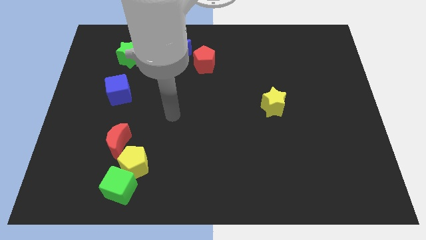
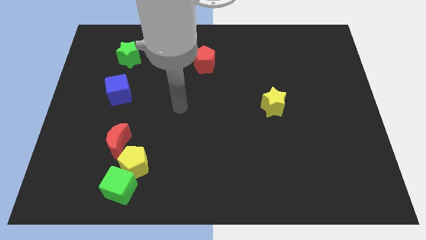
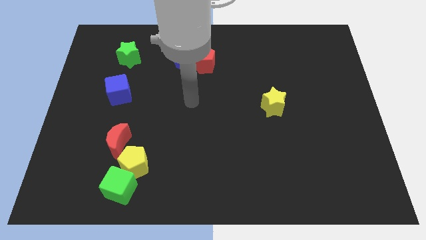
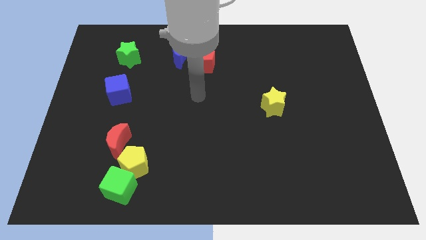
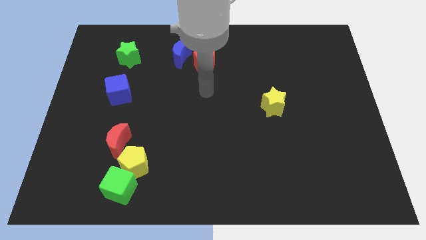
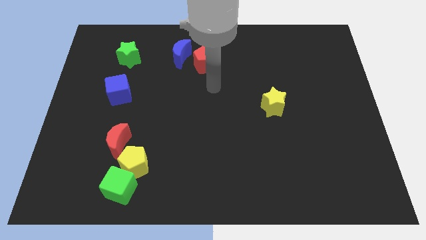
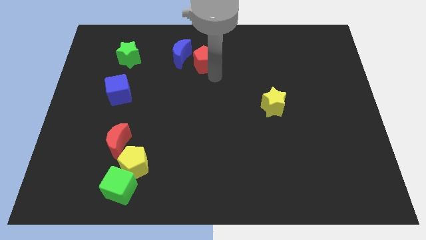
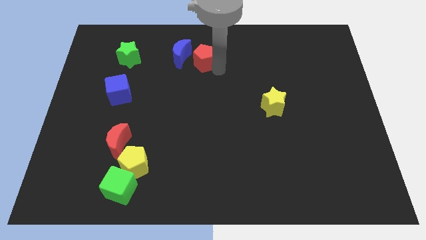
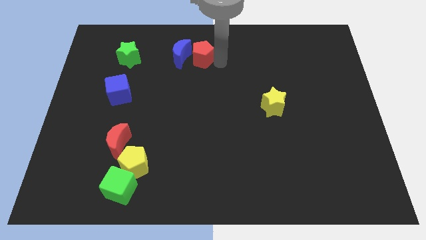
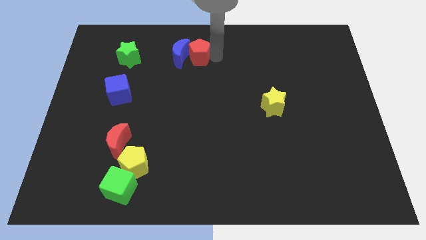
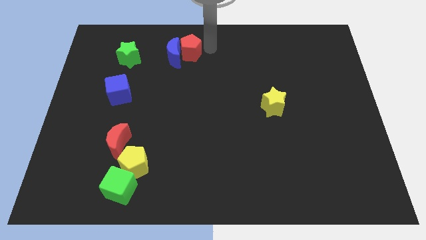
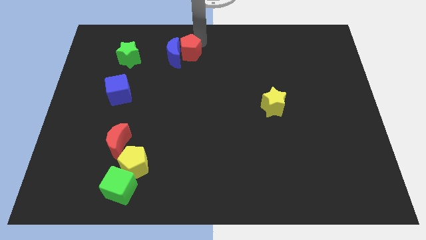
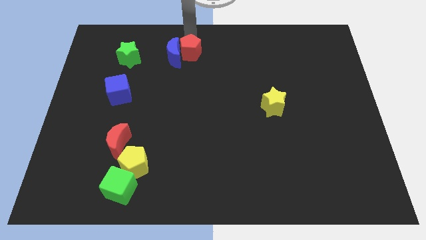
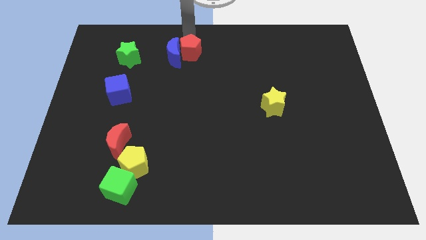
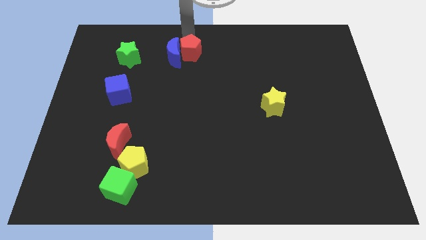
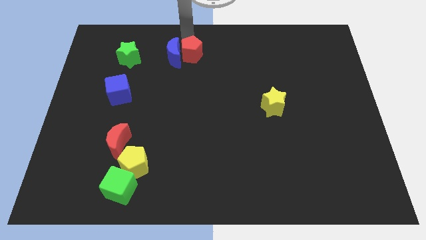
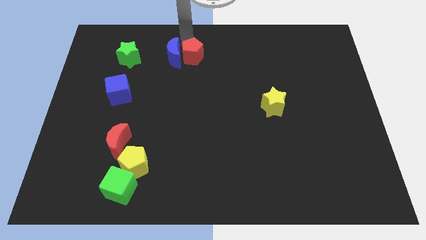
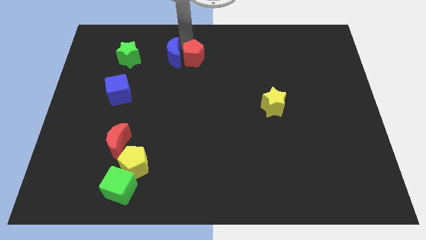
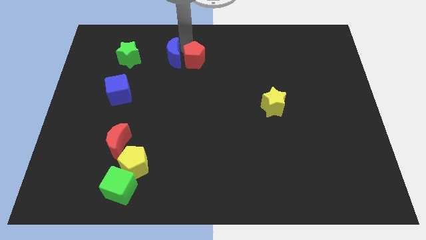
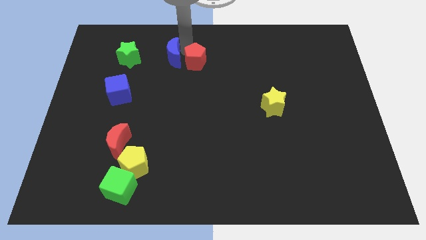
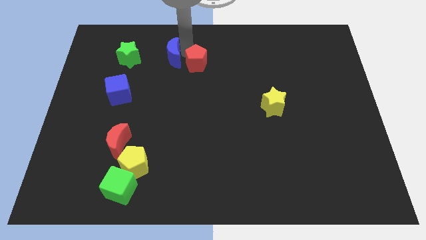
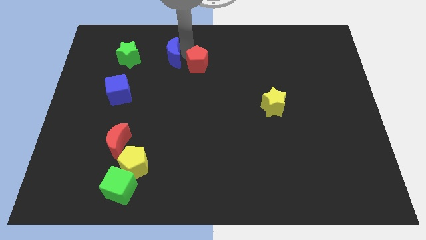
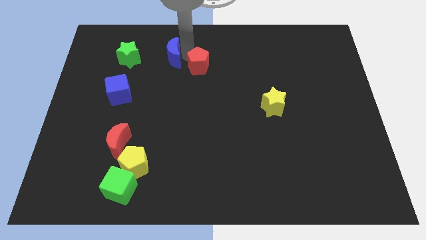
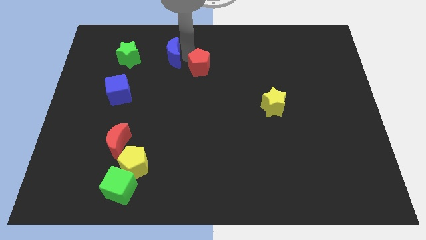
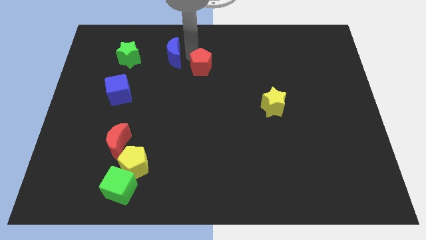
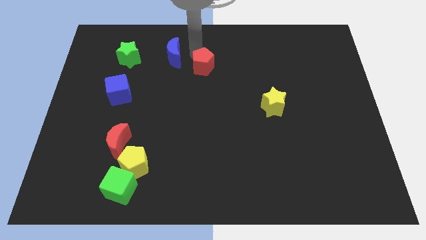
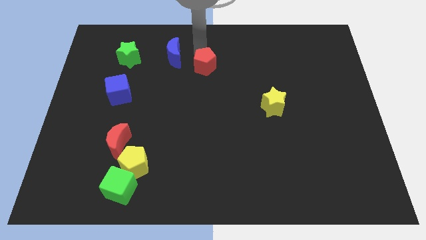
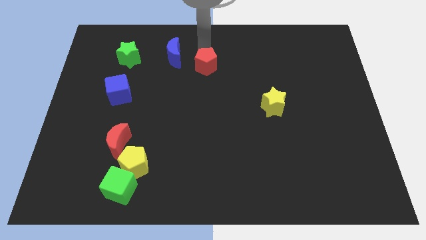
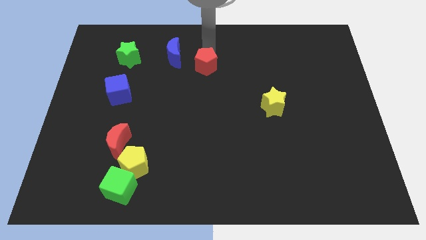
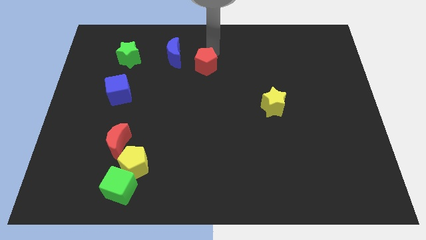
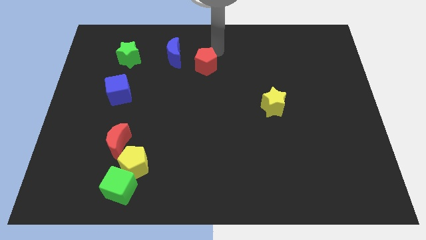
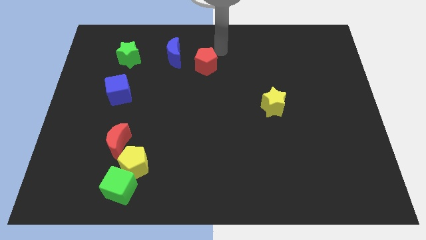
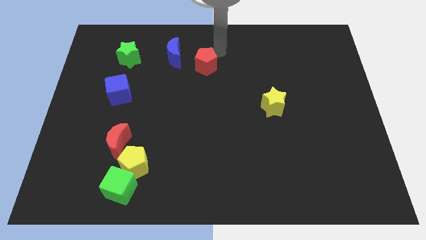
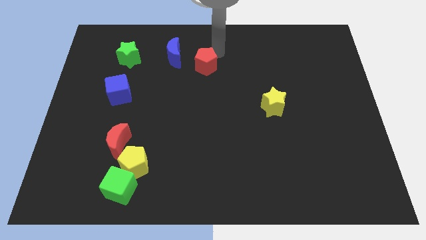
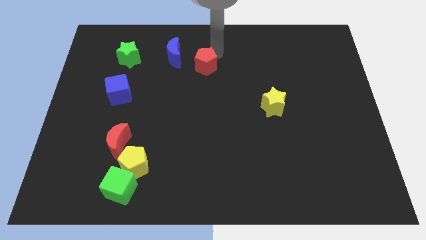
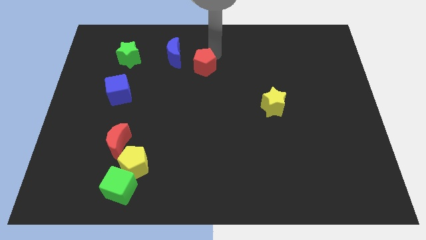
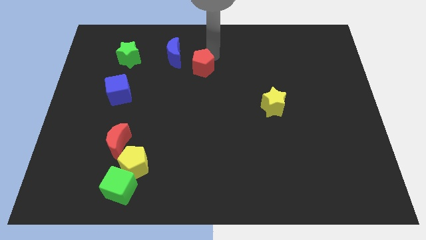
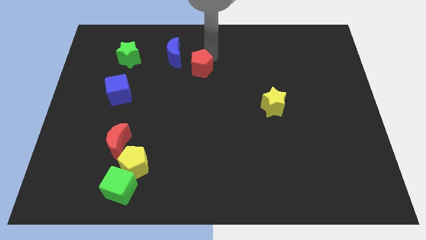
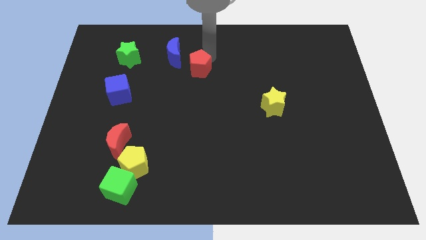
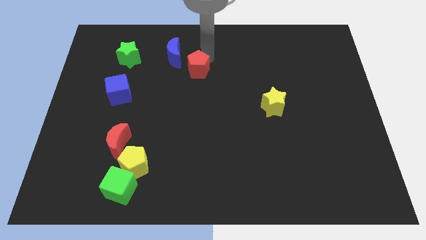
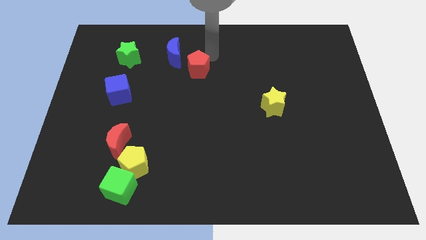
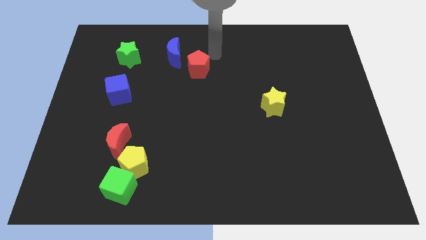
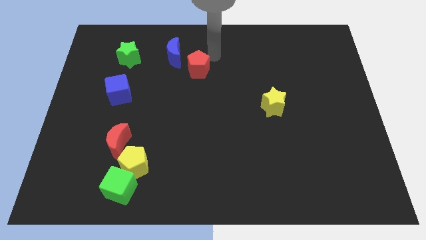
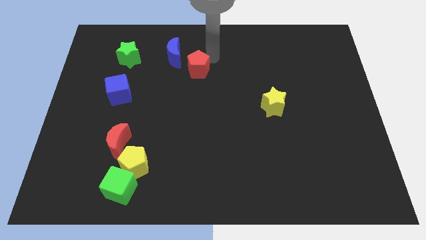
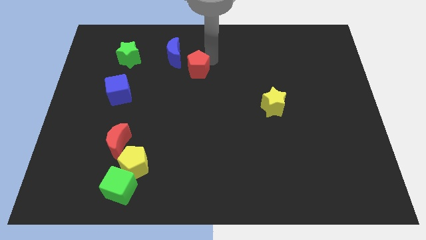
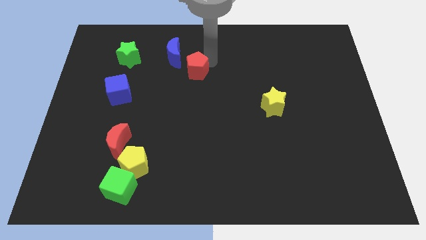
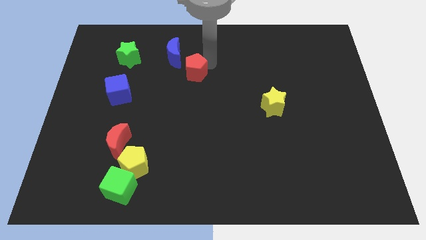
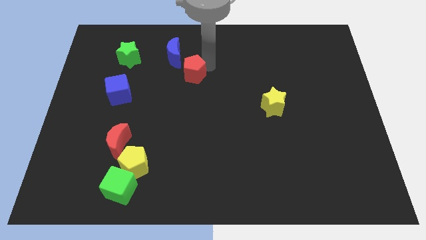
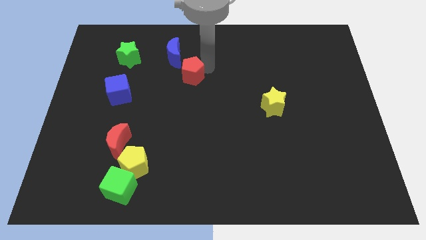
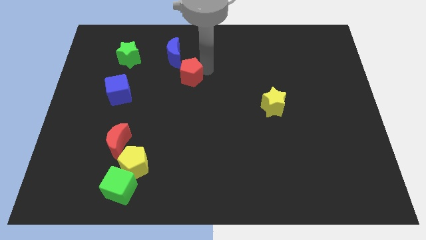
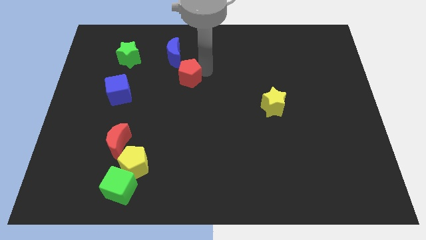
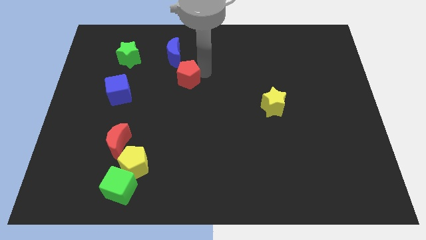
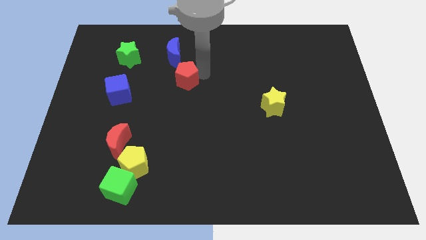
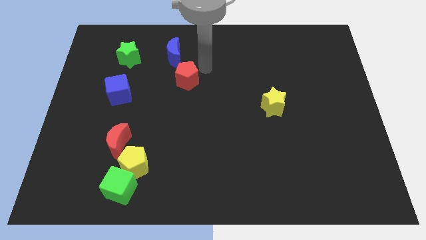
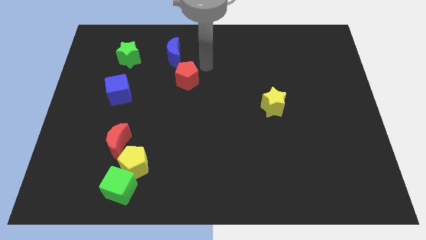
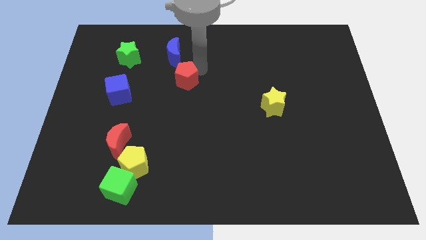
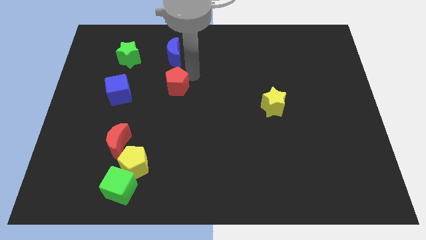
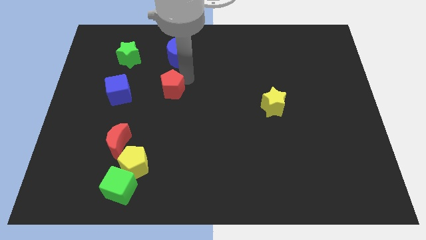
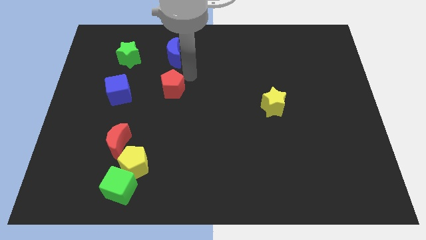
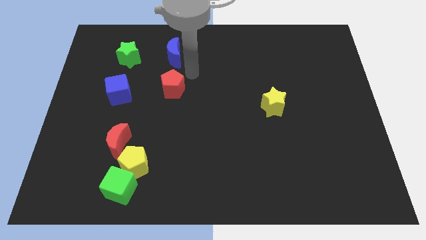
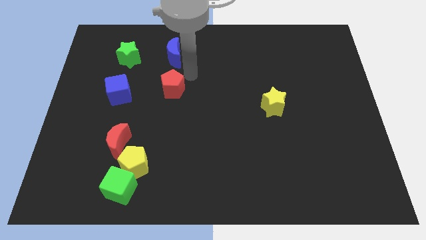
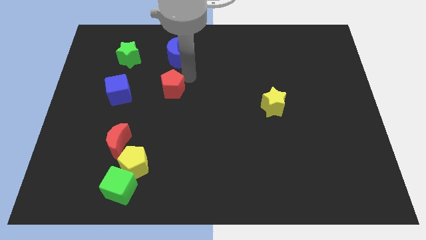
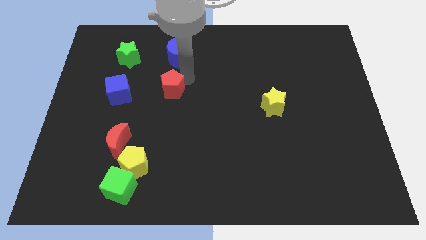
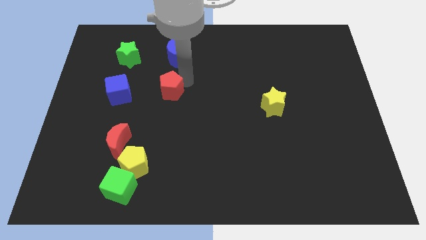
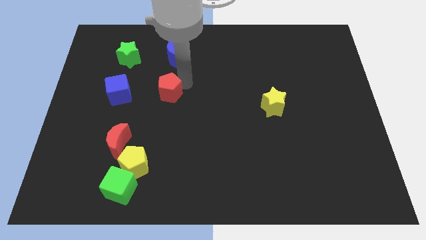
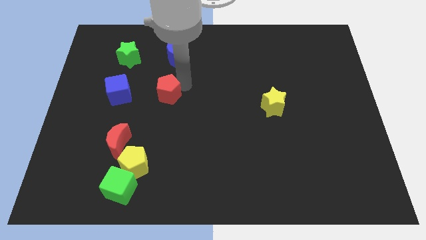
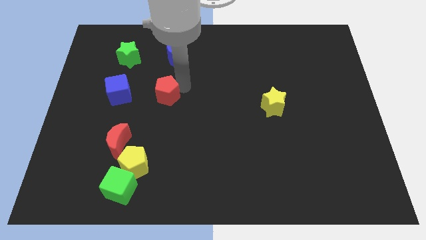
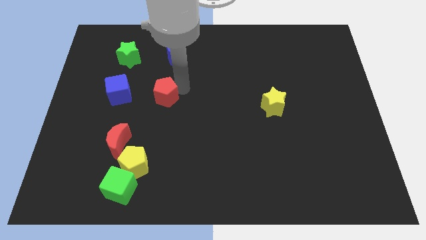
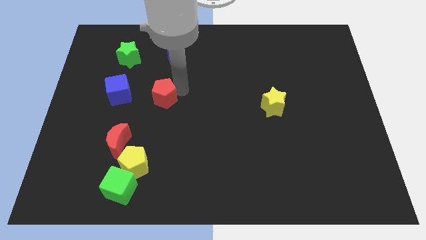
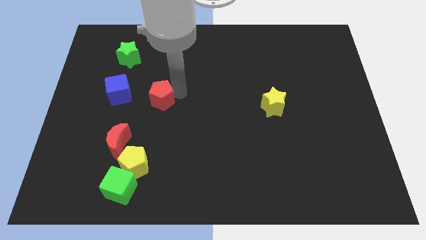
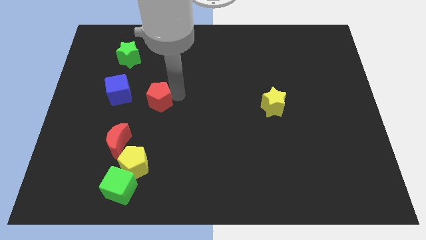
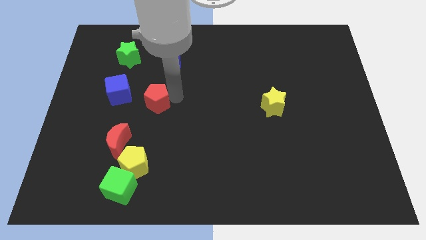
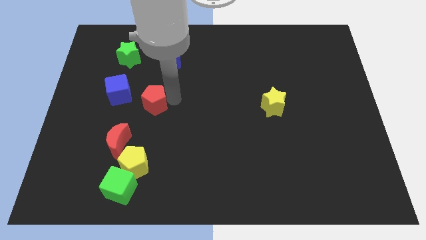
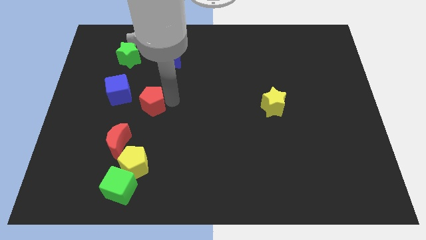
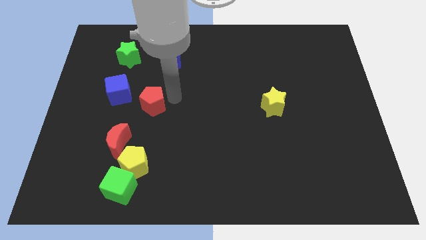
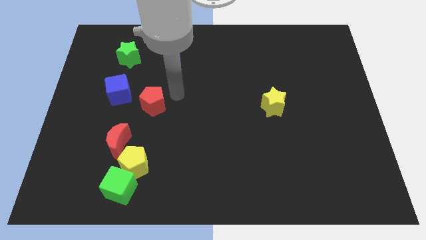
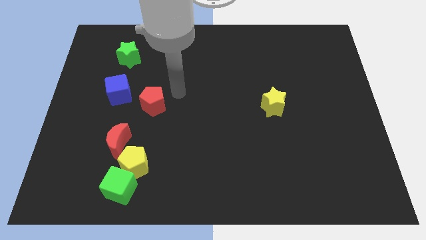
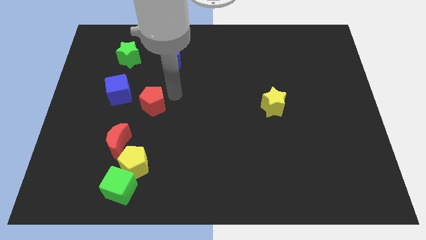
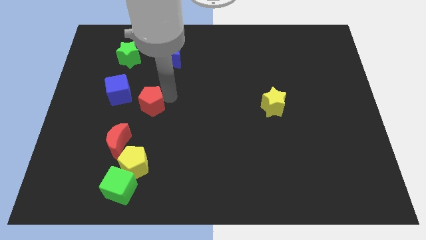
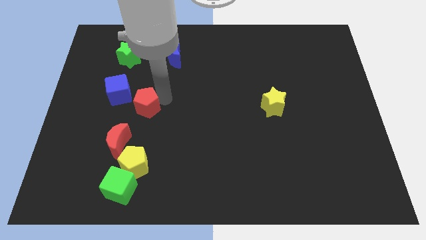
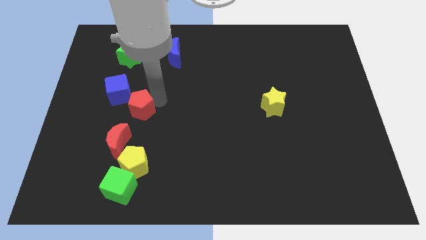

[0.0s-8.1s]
push the red pentagon downwards and to the left diagonally
